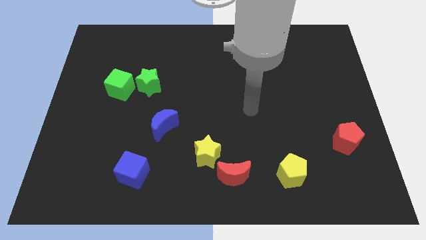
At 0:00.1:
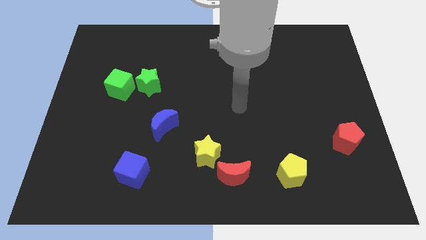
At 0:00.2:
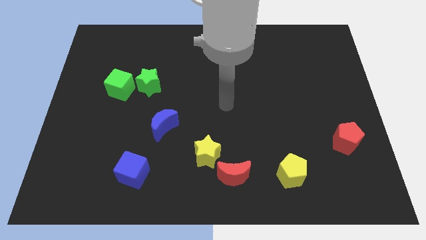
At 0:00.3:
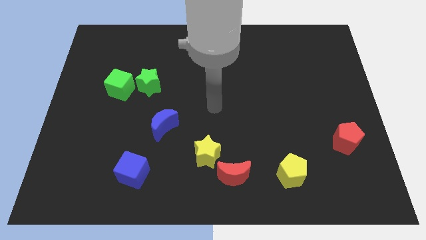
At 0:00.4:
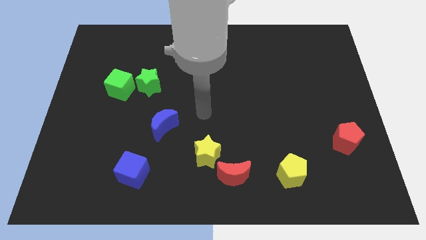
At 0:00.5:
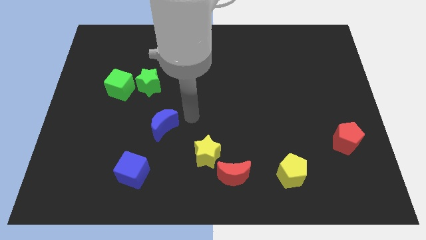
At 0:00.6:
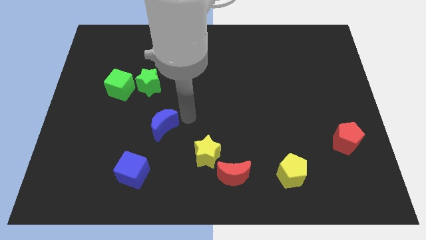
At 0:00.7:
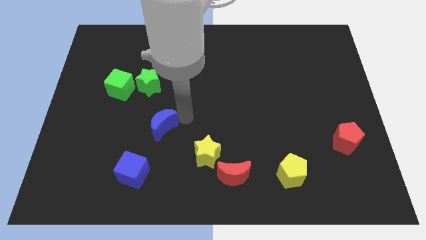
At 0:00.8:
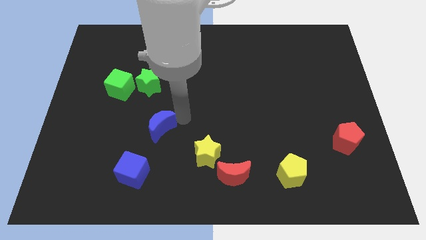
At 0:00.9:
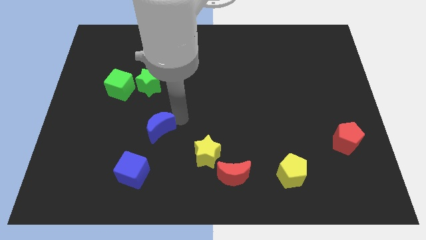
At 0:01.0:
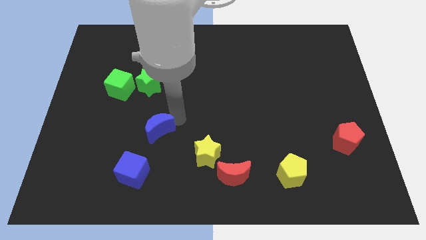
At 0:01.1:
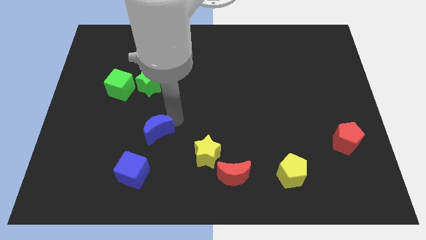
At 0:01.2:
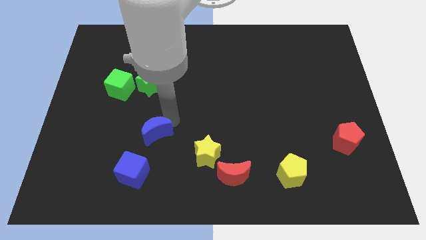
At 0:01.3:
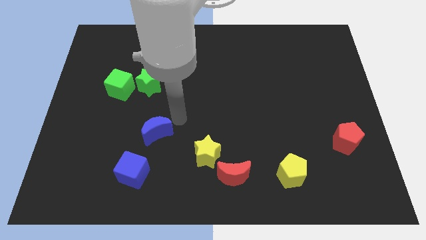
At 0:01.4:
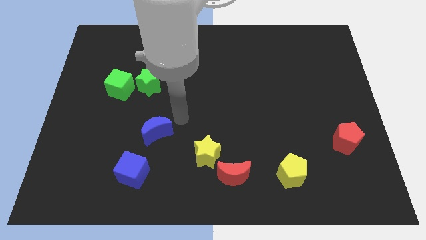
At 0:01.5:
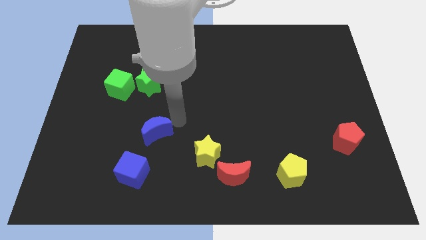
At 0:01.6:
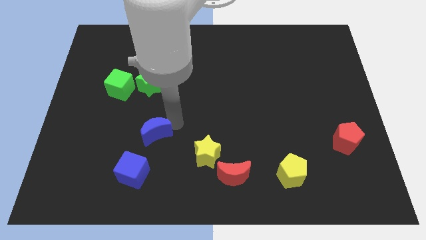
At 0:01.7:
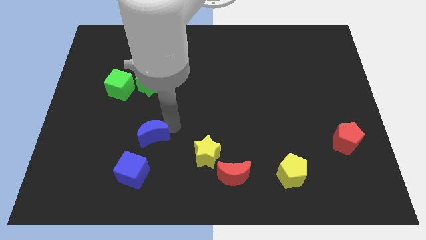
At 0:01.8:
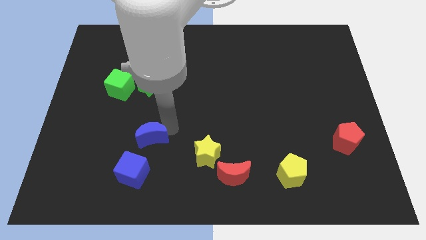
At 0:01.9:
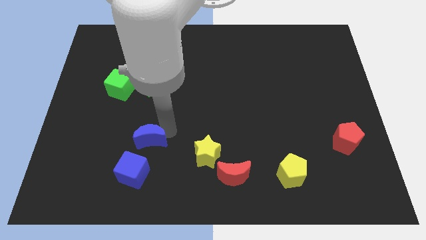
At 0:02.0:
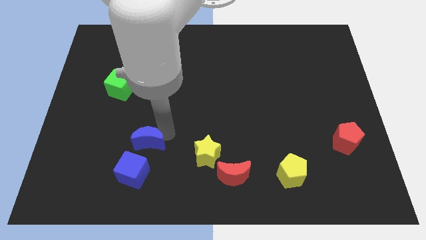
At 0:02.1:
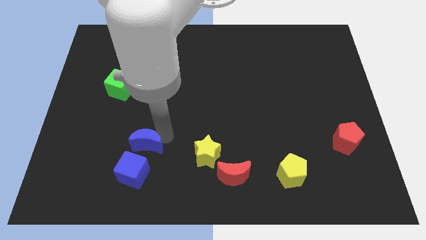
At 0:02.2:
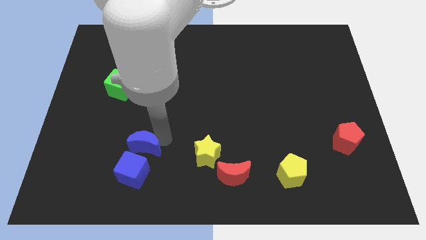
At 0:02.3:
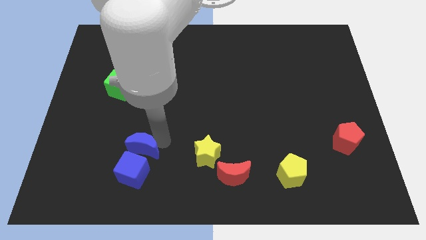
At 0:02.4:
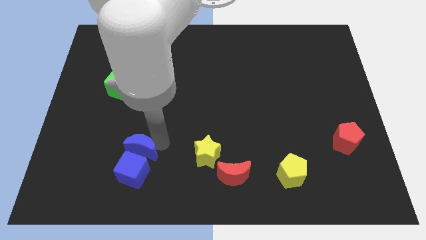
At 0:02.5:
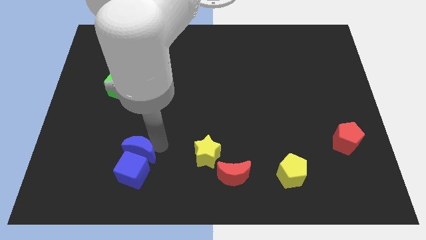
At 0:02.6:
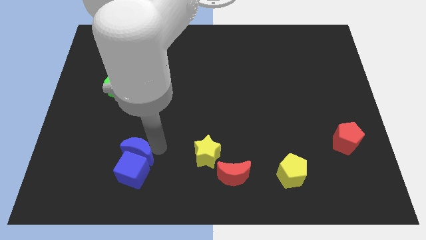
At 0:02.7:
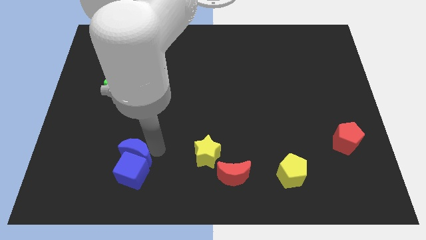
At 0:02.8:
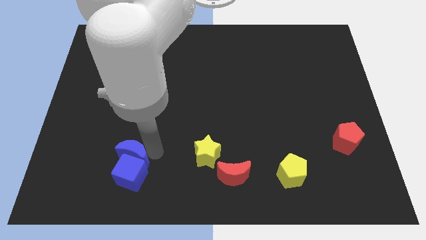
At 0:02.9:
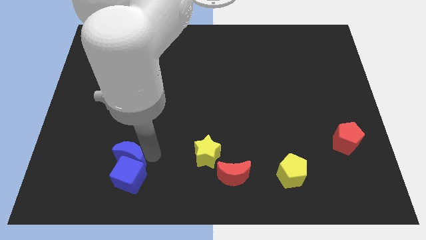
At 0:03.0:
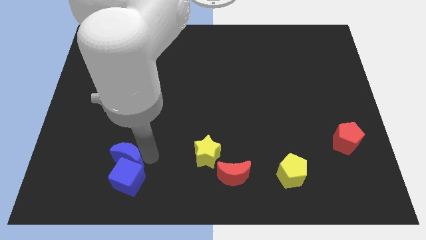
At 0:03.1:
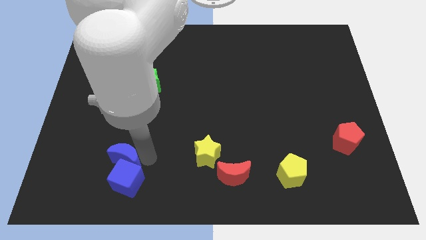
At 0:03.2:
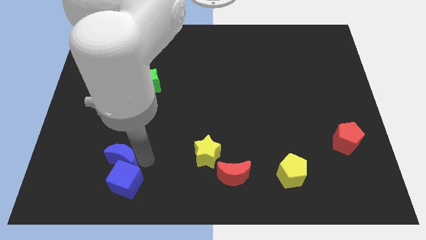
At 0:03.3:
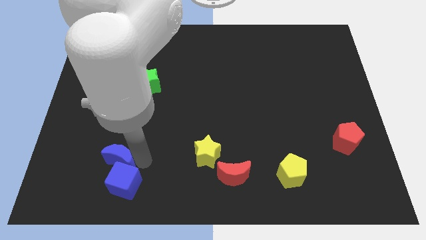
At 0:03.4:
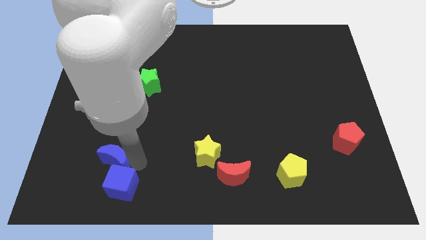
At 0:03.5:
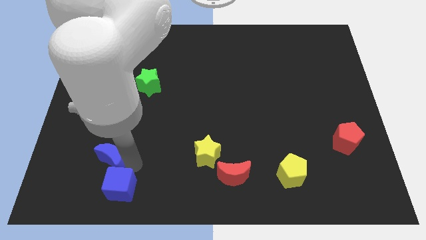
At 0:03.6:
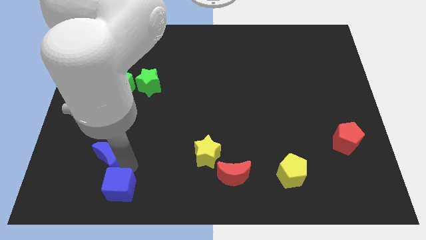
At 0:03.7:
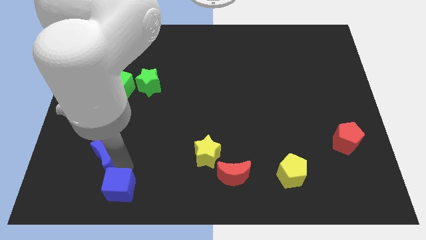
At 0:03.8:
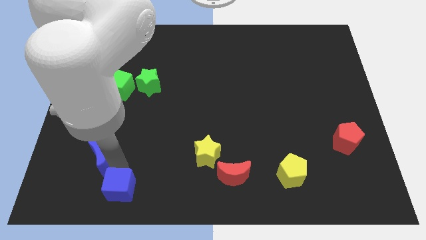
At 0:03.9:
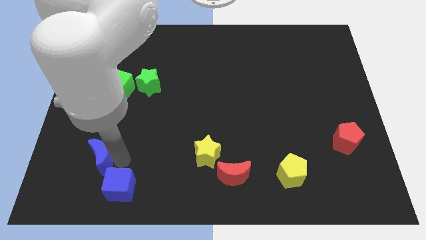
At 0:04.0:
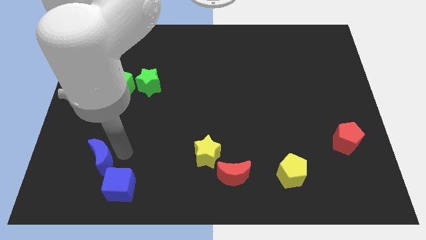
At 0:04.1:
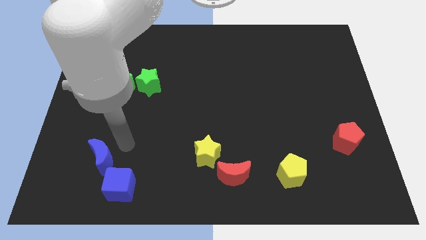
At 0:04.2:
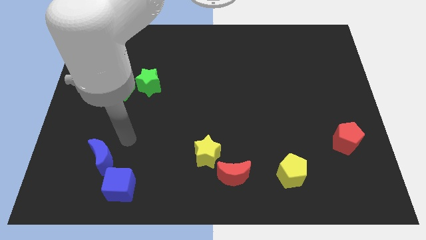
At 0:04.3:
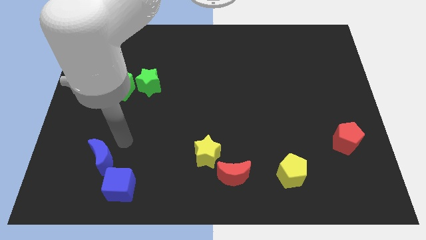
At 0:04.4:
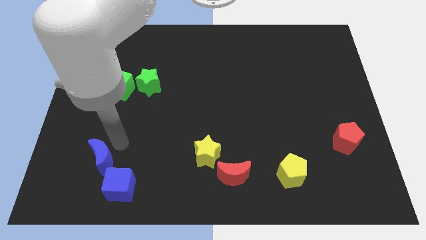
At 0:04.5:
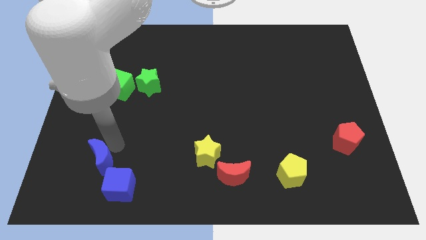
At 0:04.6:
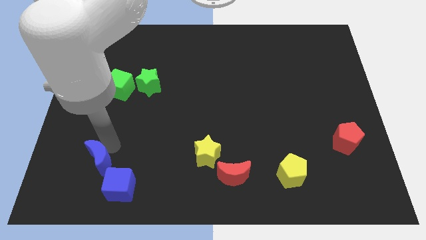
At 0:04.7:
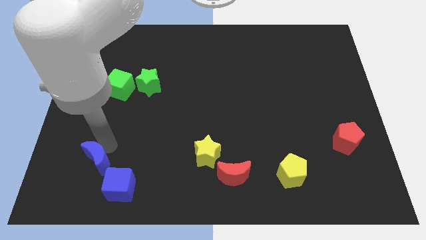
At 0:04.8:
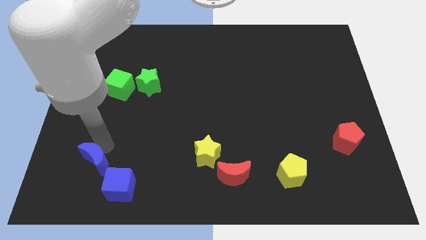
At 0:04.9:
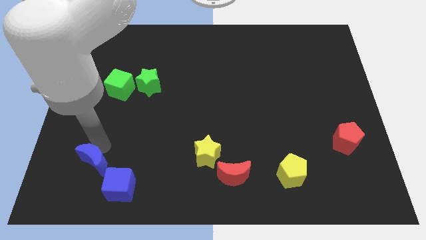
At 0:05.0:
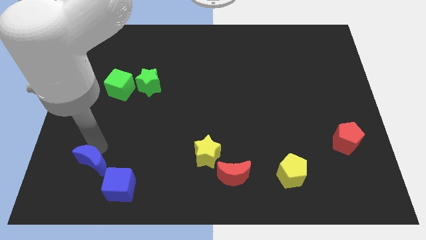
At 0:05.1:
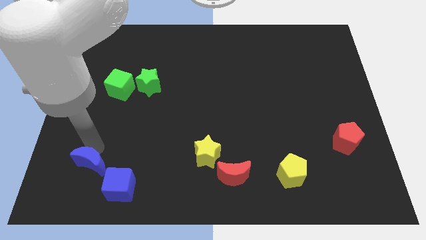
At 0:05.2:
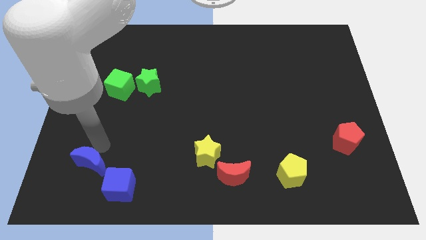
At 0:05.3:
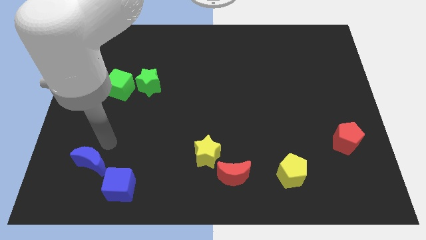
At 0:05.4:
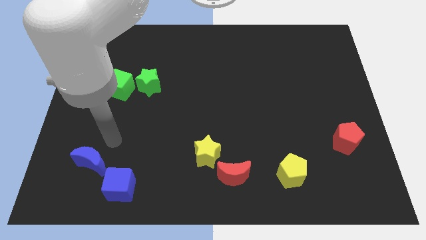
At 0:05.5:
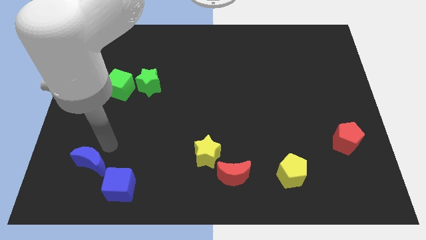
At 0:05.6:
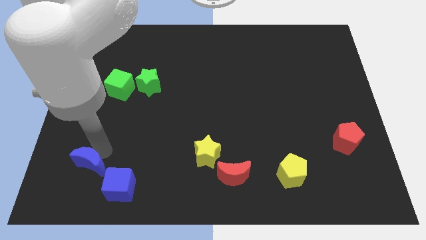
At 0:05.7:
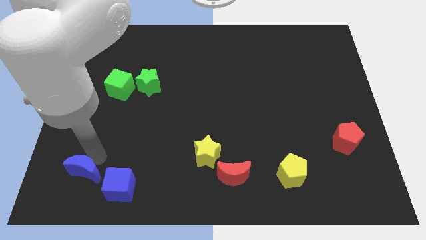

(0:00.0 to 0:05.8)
move the blue moon just left of the blue cube
